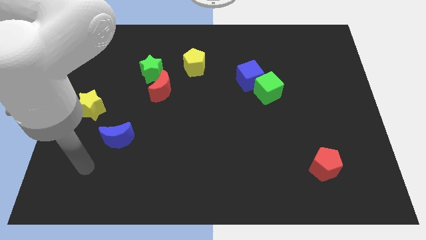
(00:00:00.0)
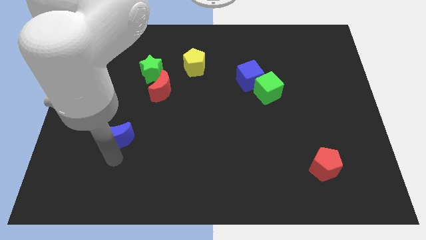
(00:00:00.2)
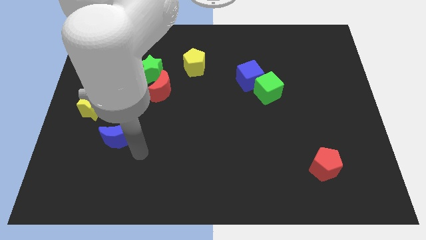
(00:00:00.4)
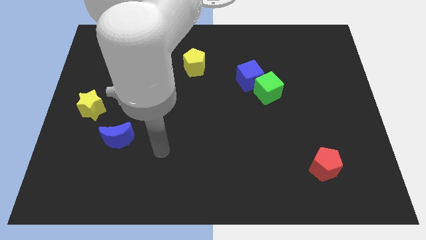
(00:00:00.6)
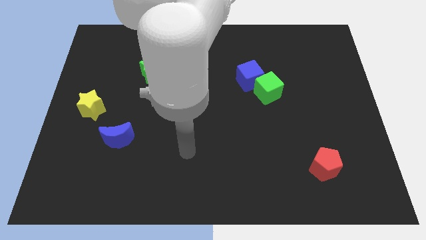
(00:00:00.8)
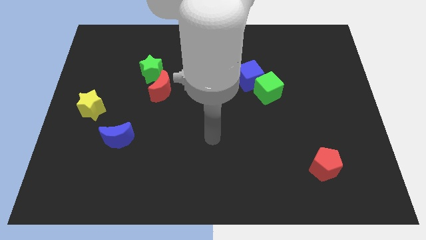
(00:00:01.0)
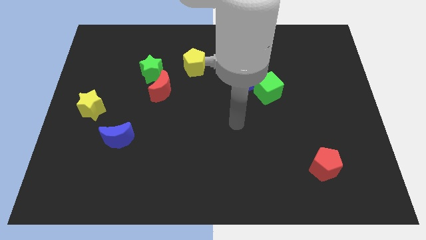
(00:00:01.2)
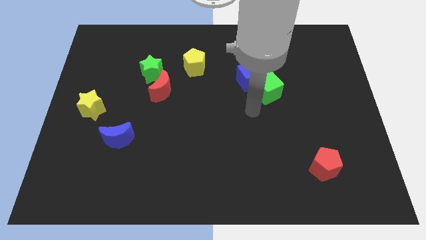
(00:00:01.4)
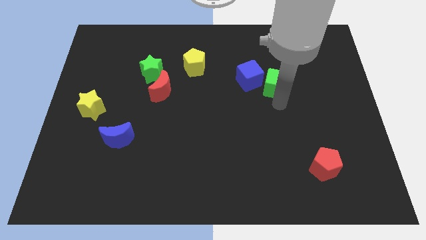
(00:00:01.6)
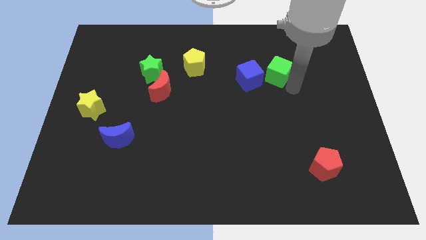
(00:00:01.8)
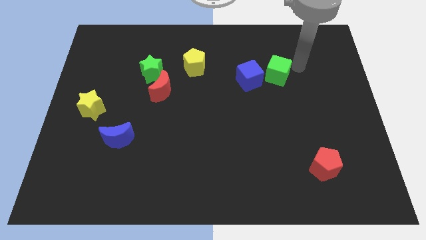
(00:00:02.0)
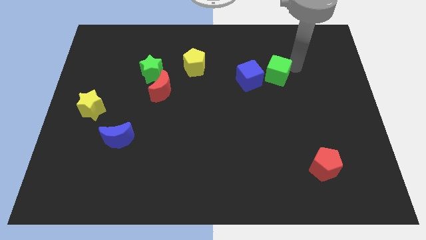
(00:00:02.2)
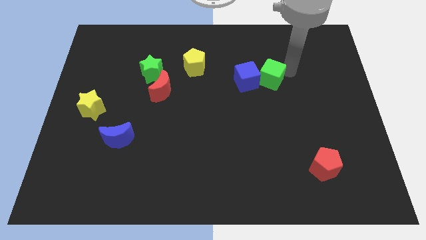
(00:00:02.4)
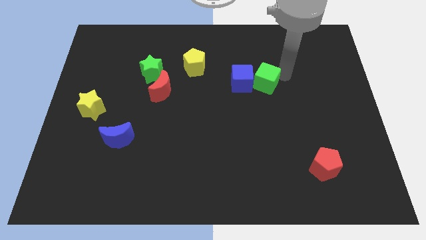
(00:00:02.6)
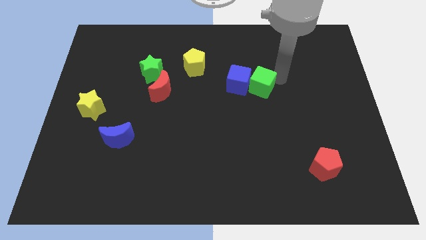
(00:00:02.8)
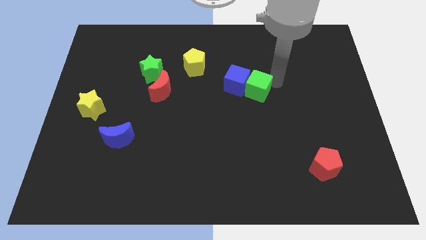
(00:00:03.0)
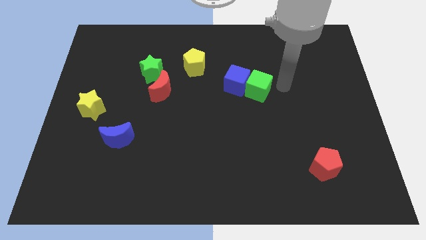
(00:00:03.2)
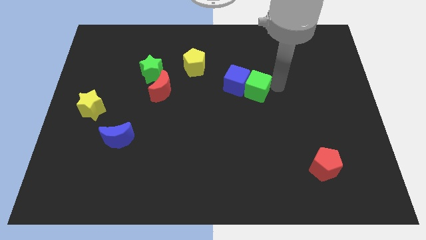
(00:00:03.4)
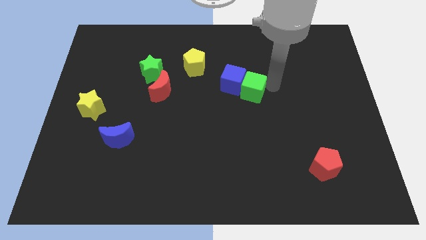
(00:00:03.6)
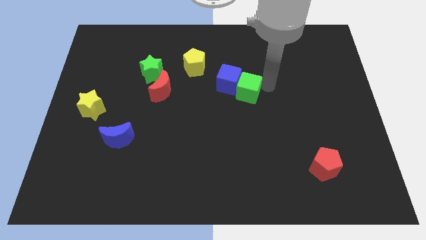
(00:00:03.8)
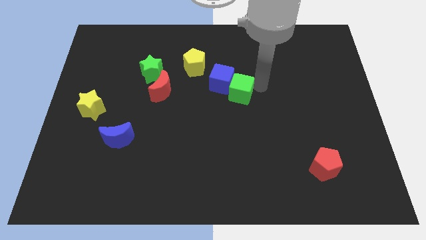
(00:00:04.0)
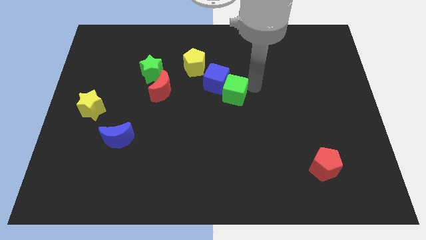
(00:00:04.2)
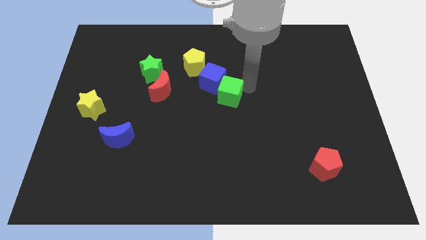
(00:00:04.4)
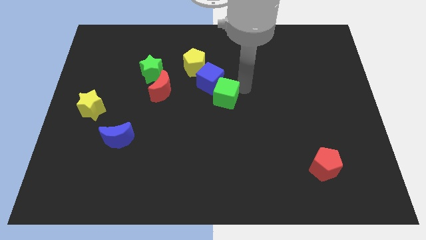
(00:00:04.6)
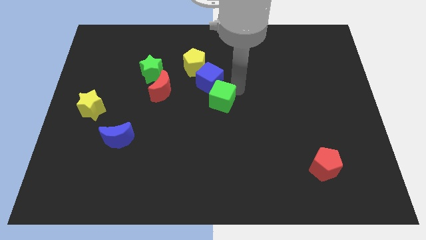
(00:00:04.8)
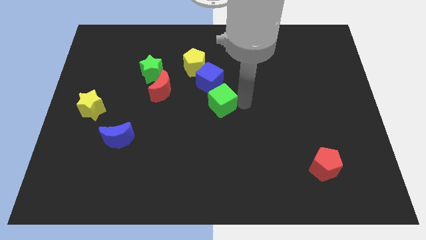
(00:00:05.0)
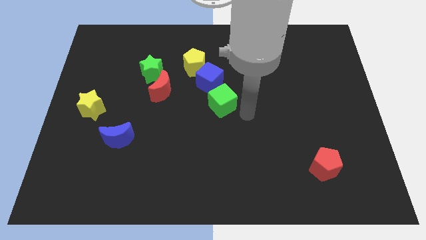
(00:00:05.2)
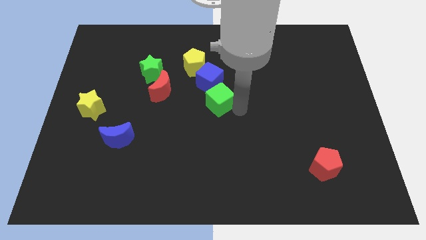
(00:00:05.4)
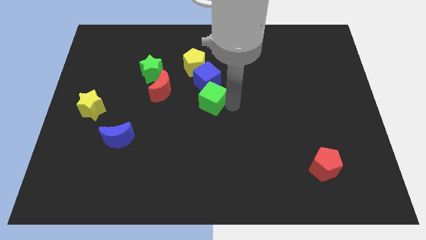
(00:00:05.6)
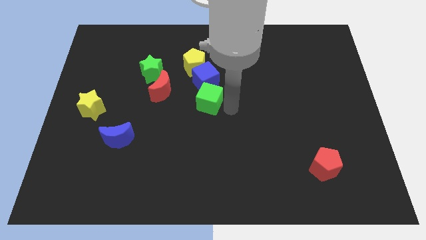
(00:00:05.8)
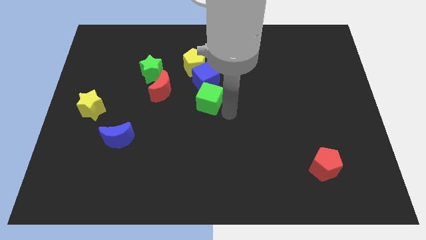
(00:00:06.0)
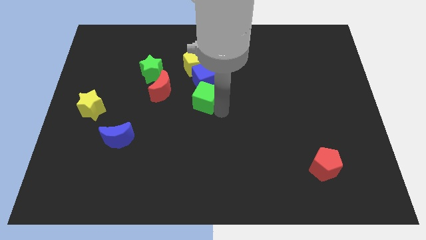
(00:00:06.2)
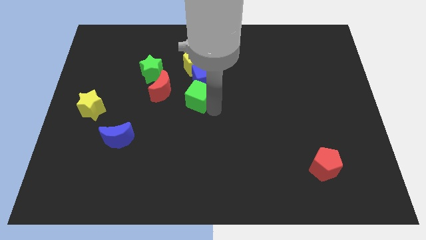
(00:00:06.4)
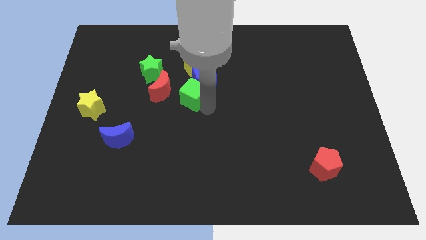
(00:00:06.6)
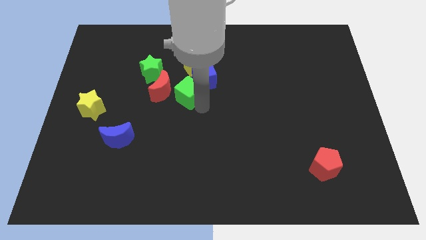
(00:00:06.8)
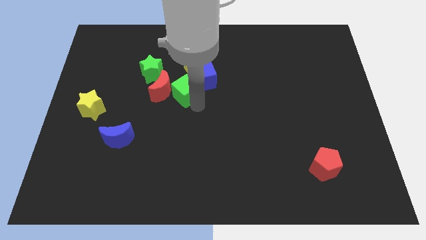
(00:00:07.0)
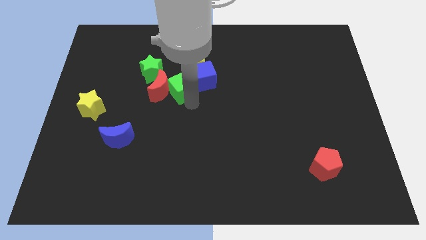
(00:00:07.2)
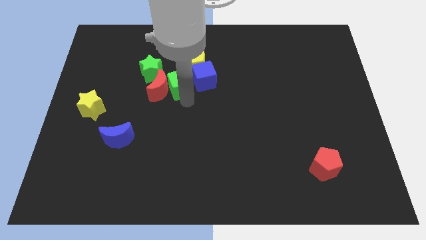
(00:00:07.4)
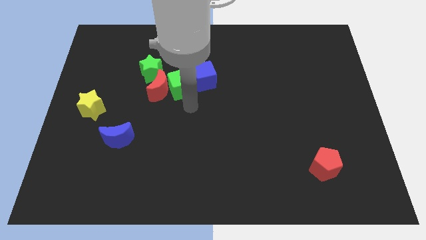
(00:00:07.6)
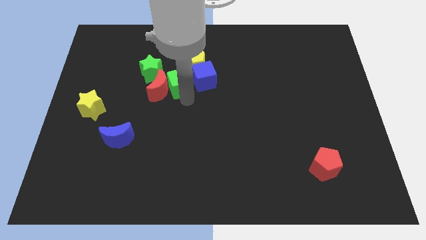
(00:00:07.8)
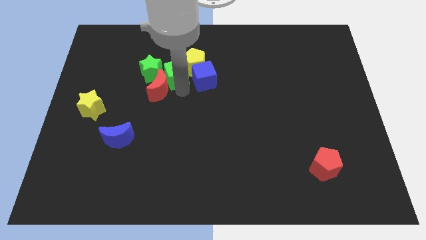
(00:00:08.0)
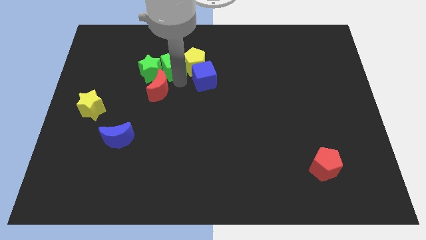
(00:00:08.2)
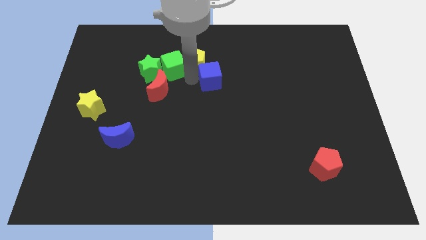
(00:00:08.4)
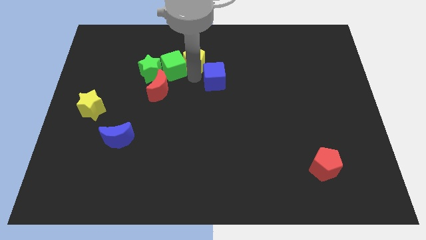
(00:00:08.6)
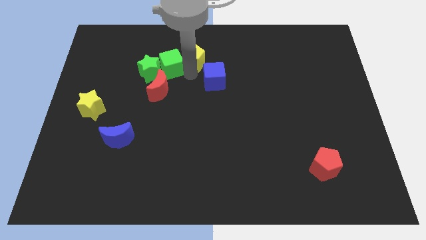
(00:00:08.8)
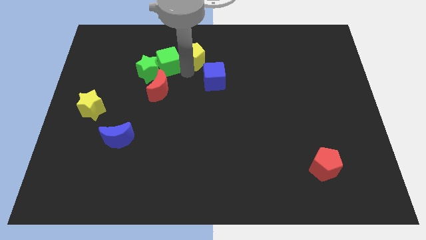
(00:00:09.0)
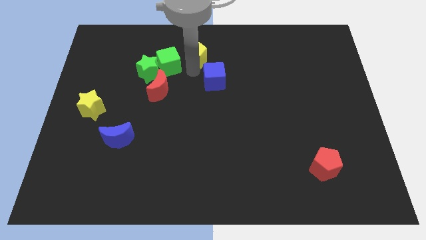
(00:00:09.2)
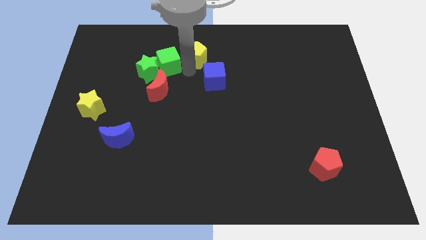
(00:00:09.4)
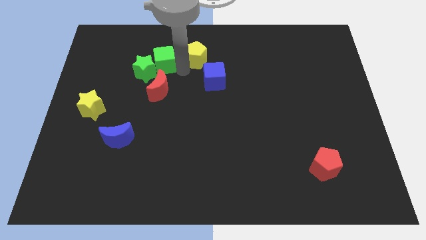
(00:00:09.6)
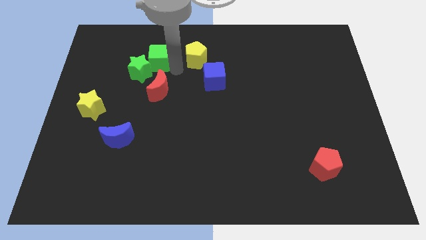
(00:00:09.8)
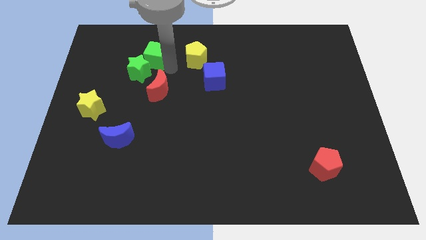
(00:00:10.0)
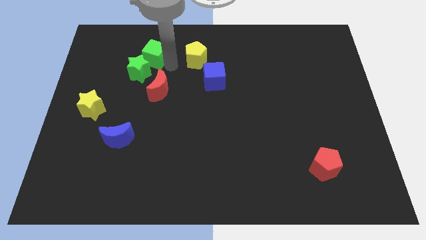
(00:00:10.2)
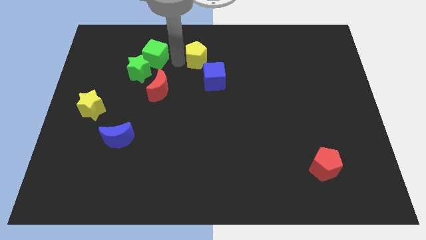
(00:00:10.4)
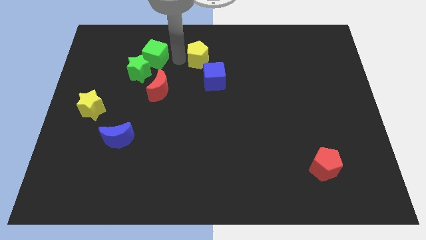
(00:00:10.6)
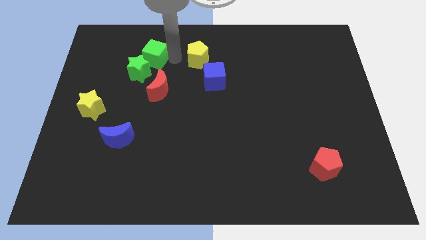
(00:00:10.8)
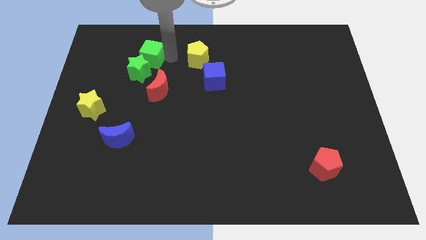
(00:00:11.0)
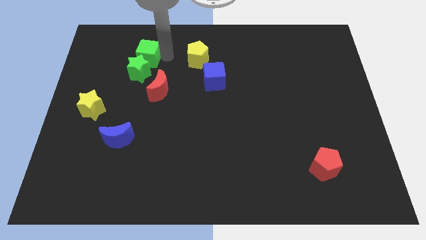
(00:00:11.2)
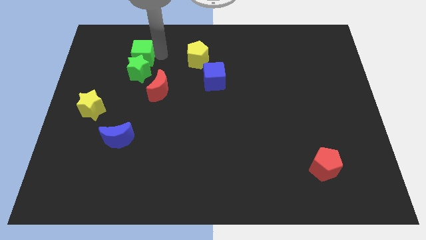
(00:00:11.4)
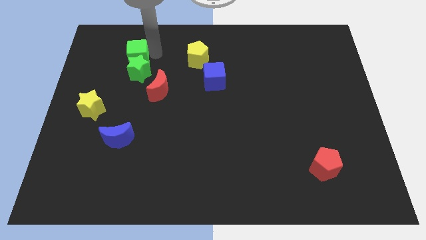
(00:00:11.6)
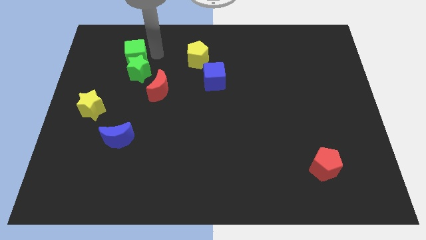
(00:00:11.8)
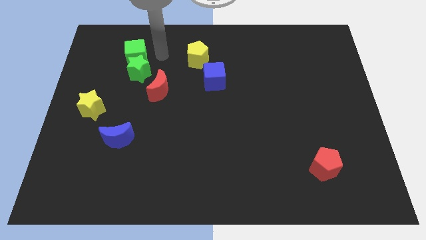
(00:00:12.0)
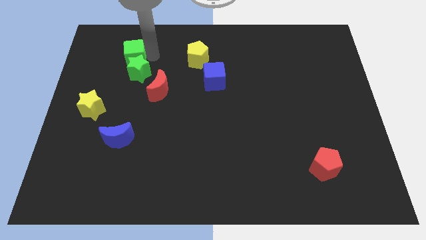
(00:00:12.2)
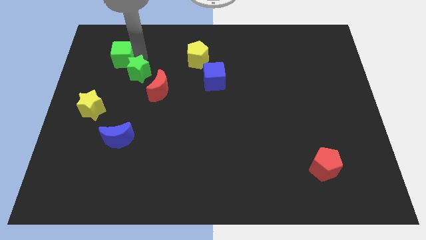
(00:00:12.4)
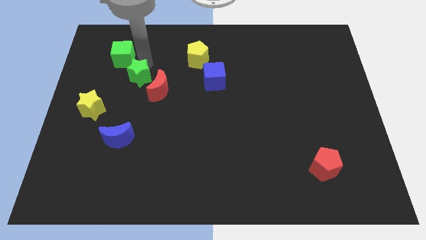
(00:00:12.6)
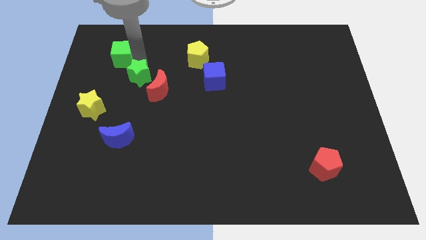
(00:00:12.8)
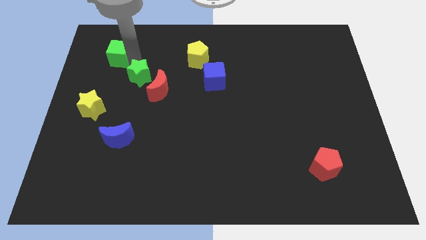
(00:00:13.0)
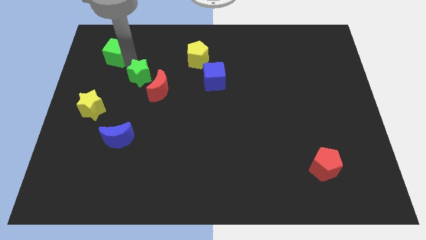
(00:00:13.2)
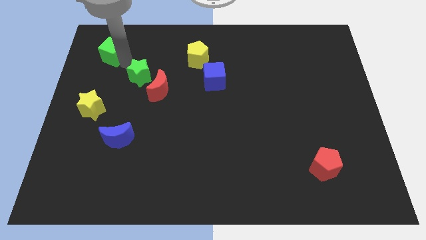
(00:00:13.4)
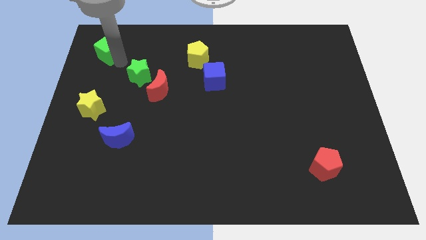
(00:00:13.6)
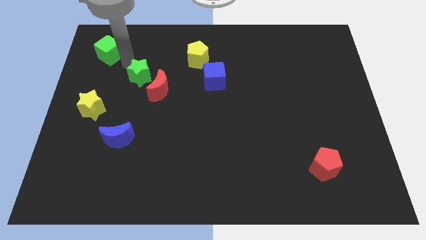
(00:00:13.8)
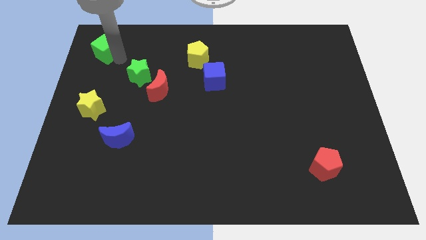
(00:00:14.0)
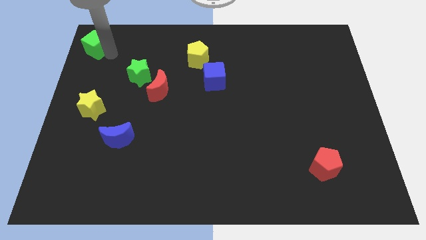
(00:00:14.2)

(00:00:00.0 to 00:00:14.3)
push the green cube to the upper left corner

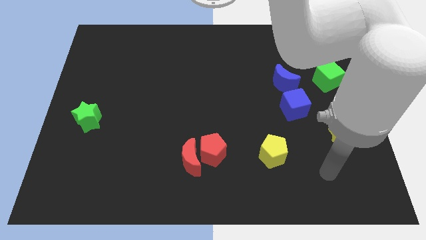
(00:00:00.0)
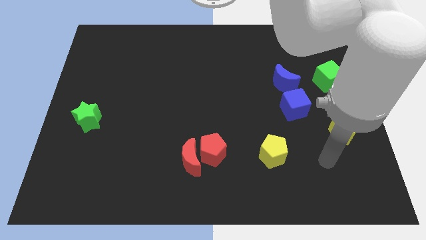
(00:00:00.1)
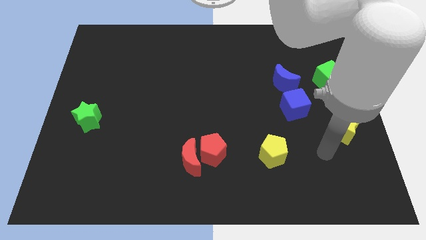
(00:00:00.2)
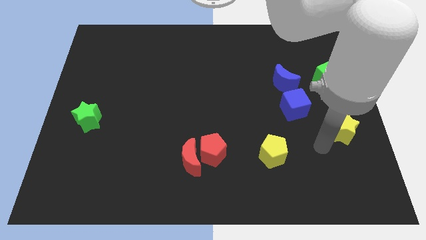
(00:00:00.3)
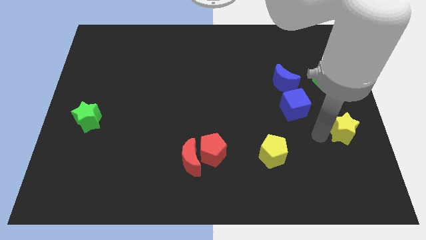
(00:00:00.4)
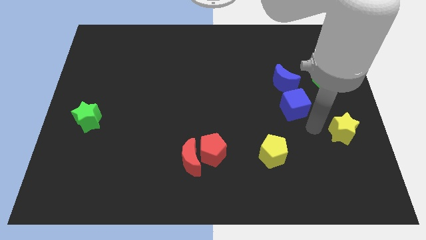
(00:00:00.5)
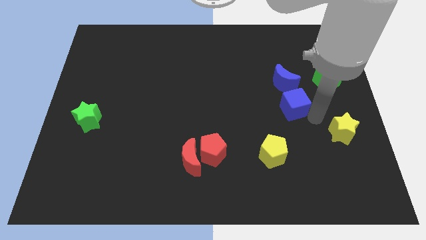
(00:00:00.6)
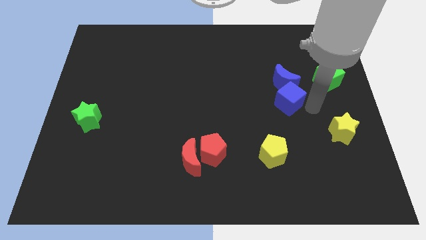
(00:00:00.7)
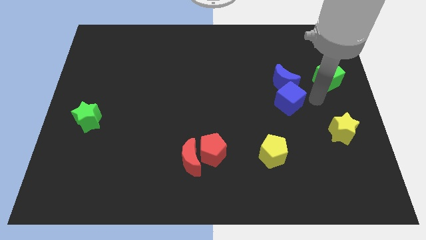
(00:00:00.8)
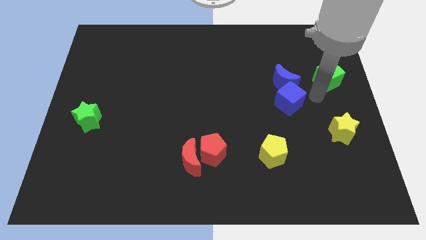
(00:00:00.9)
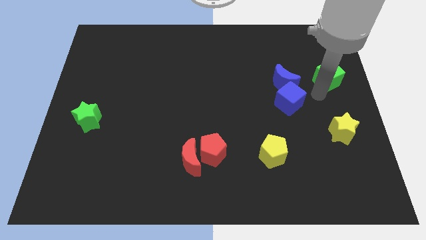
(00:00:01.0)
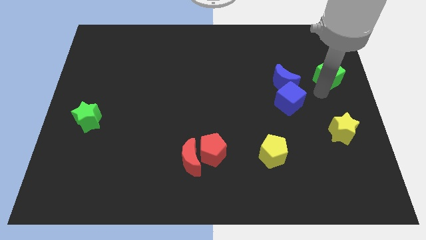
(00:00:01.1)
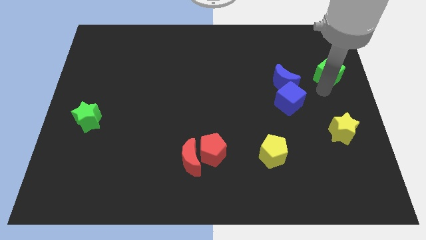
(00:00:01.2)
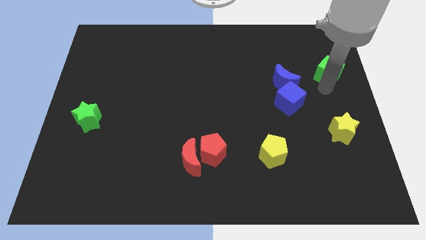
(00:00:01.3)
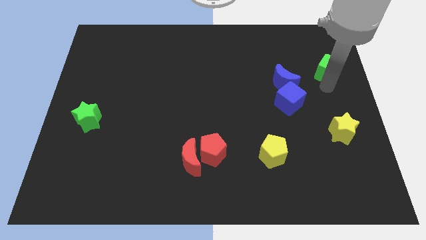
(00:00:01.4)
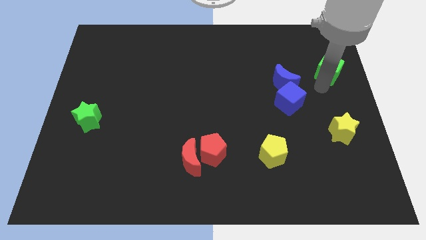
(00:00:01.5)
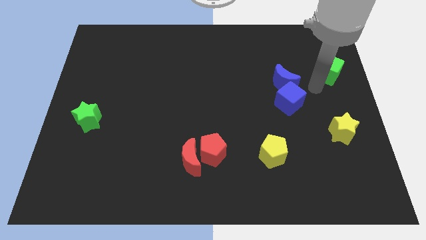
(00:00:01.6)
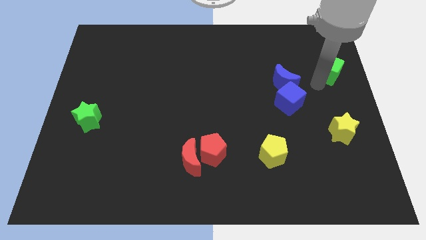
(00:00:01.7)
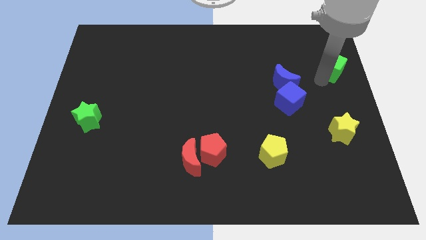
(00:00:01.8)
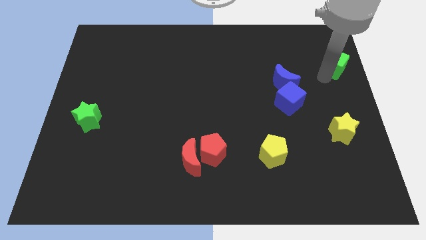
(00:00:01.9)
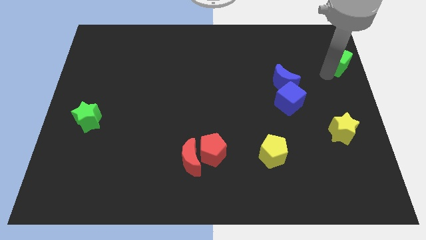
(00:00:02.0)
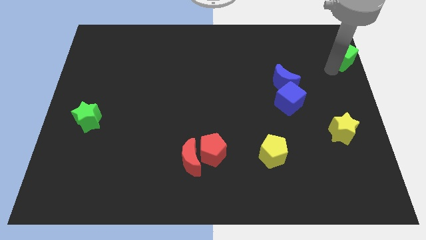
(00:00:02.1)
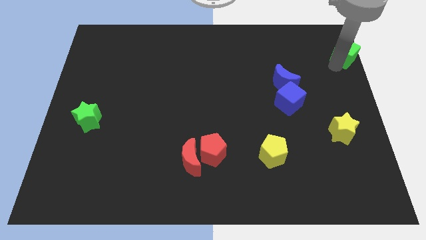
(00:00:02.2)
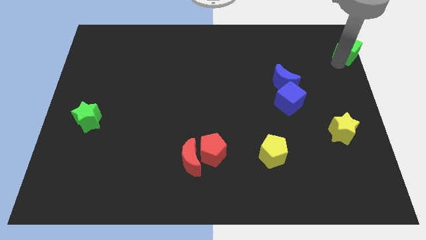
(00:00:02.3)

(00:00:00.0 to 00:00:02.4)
put the green cube to the top right corner
